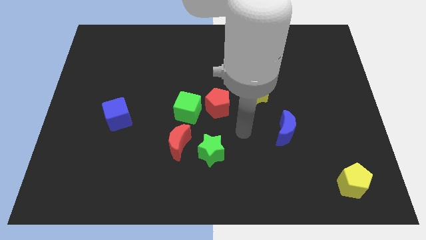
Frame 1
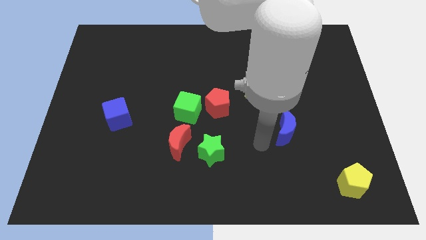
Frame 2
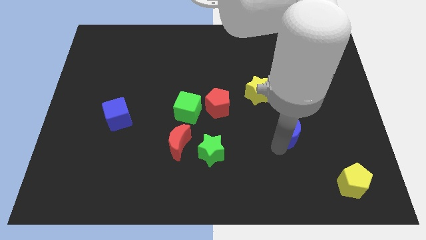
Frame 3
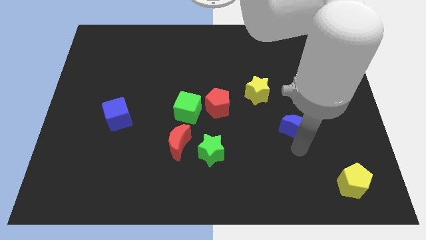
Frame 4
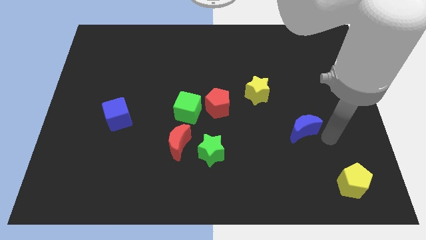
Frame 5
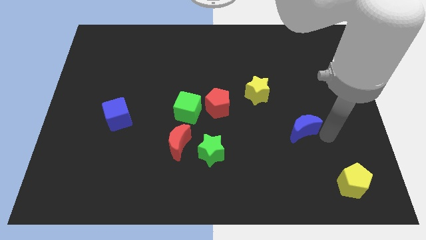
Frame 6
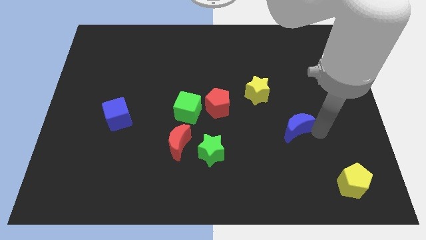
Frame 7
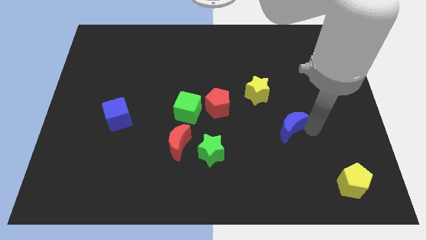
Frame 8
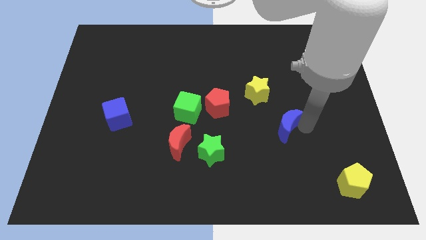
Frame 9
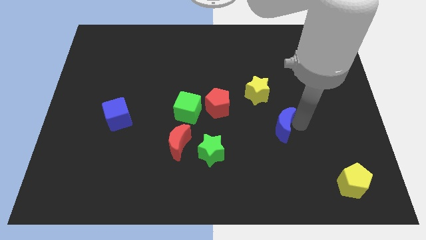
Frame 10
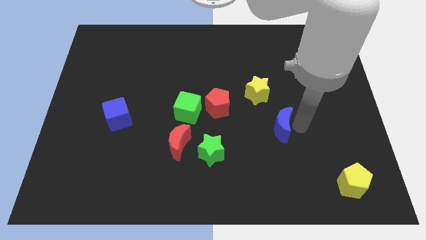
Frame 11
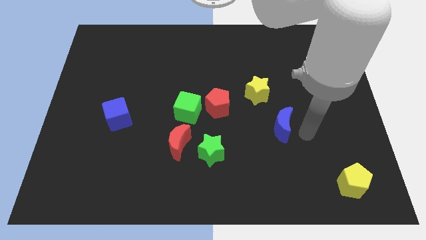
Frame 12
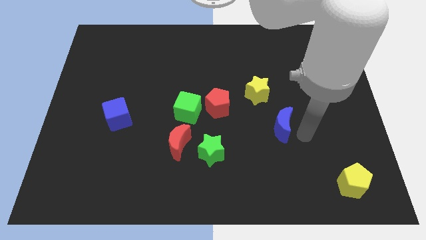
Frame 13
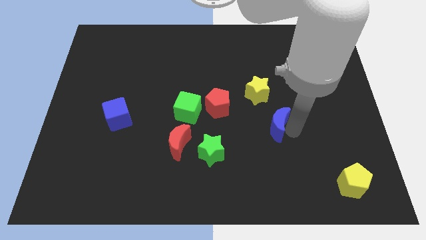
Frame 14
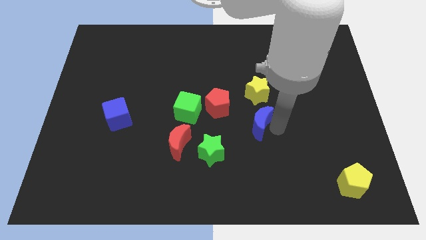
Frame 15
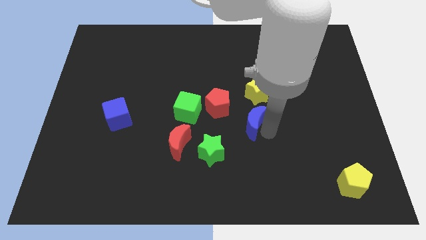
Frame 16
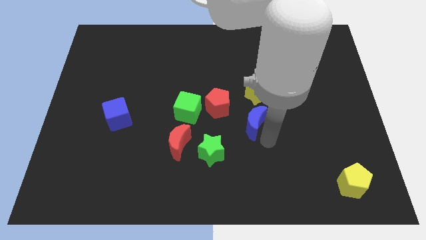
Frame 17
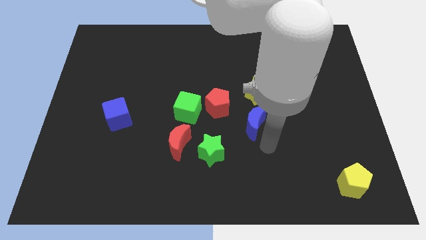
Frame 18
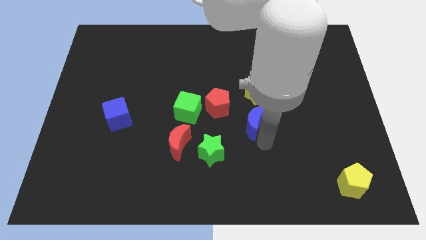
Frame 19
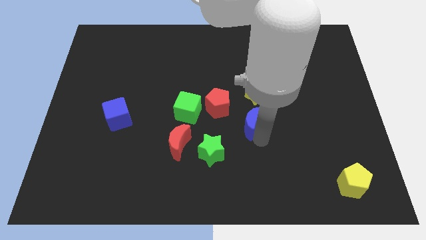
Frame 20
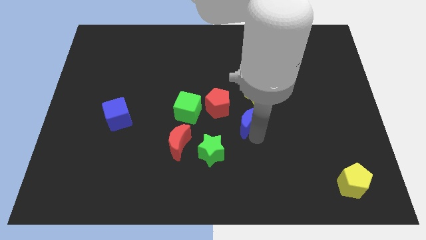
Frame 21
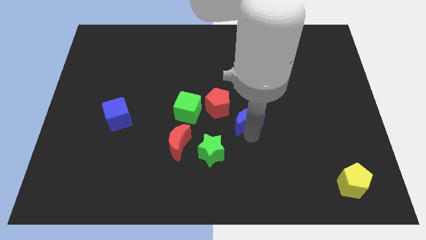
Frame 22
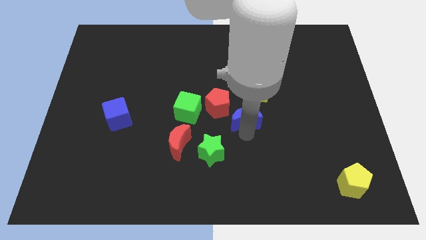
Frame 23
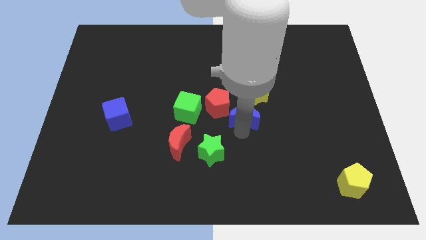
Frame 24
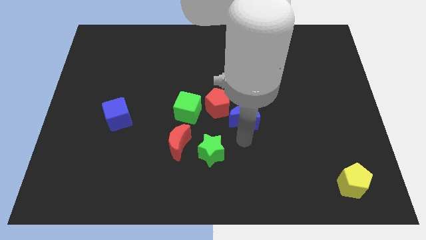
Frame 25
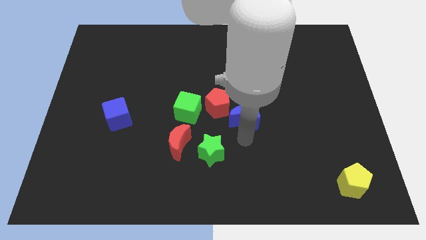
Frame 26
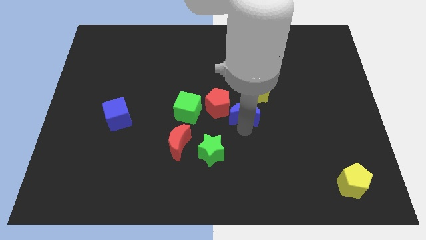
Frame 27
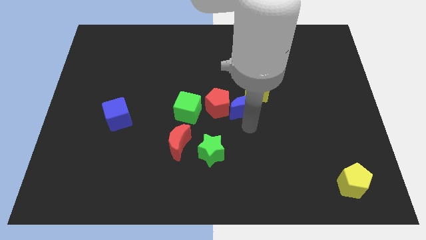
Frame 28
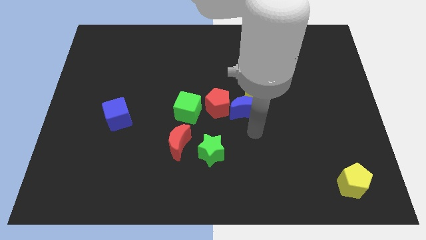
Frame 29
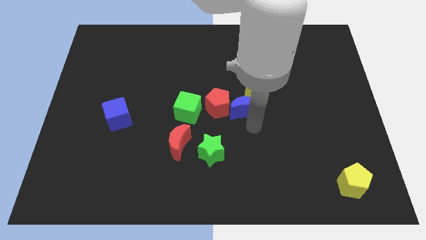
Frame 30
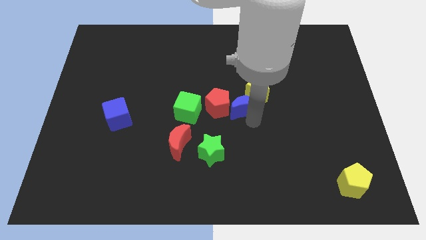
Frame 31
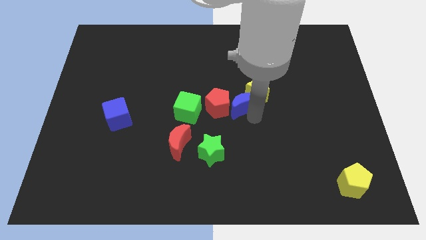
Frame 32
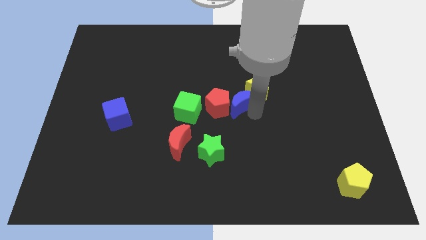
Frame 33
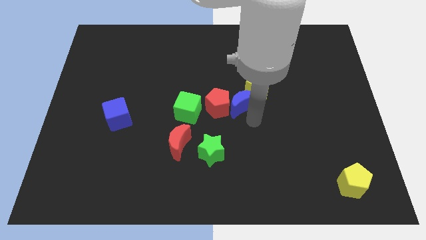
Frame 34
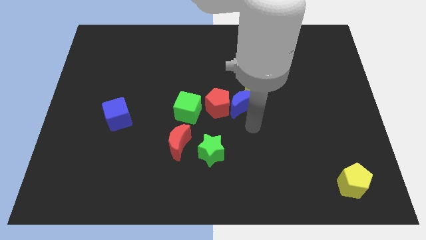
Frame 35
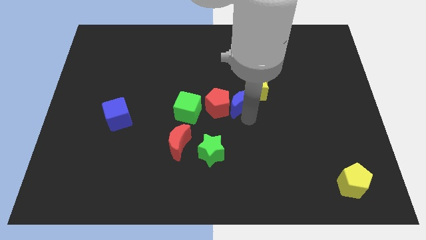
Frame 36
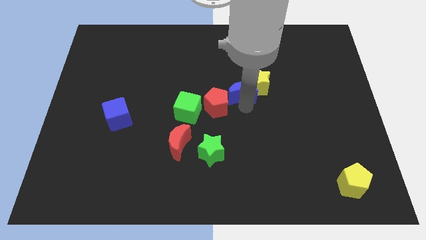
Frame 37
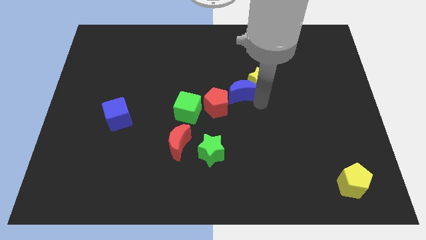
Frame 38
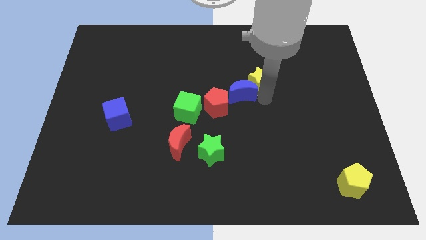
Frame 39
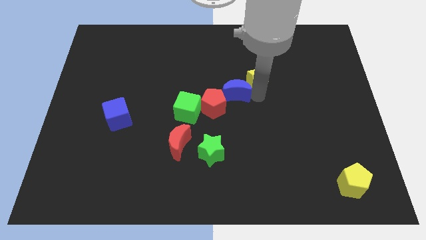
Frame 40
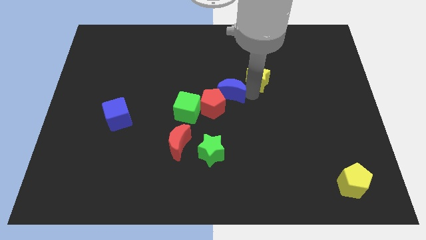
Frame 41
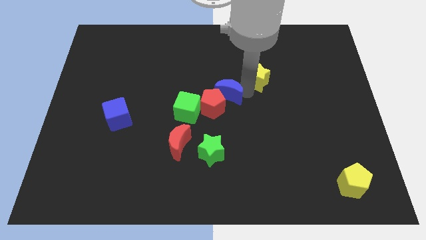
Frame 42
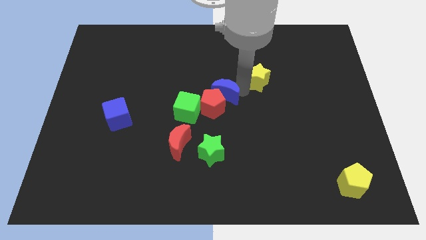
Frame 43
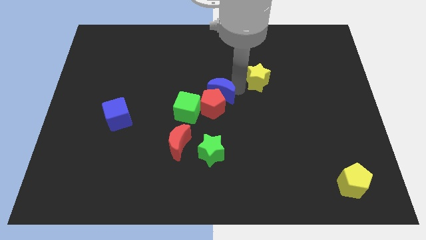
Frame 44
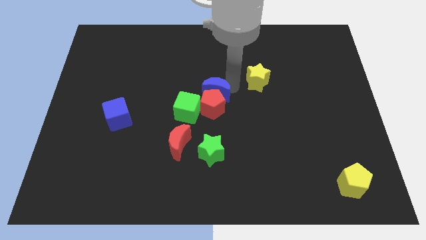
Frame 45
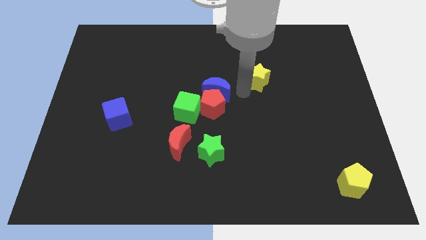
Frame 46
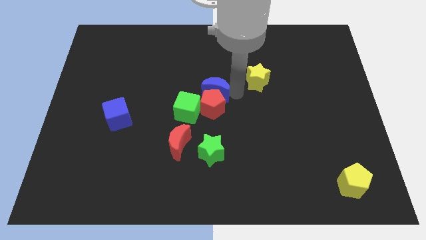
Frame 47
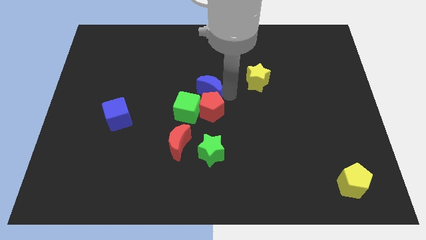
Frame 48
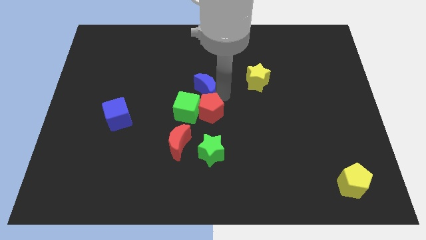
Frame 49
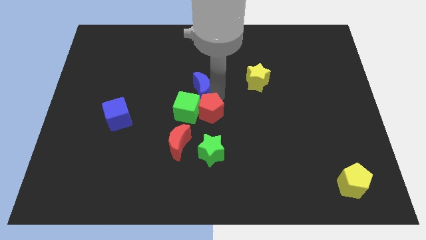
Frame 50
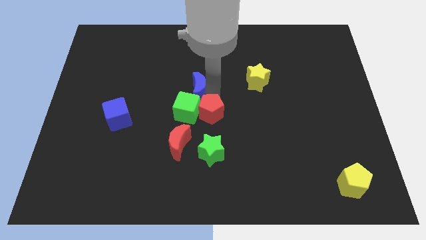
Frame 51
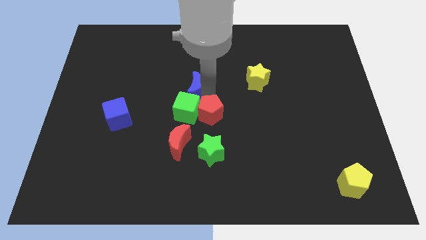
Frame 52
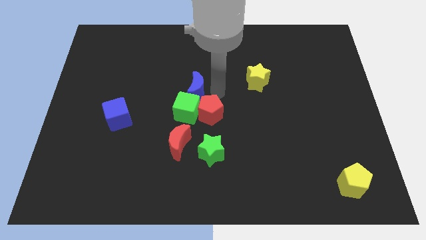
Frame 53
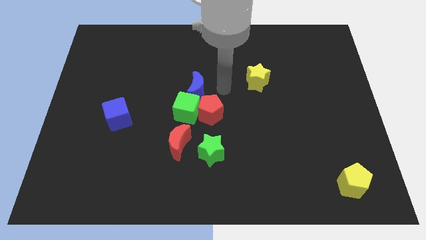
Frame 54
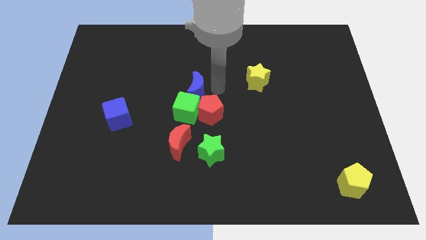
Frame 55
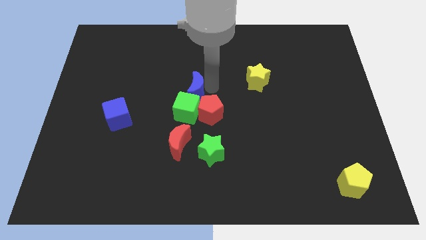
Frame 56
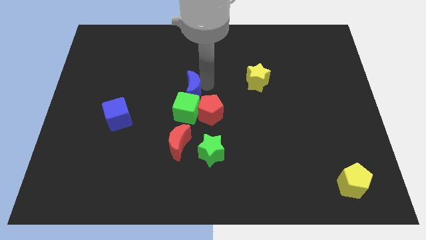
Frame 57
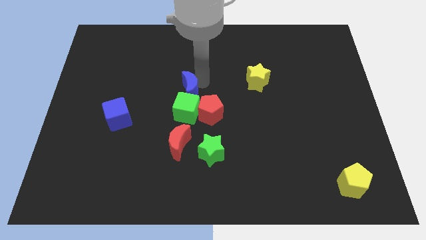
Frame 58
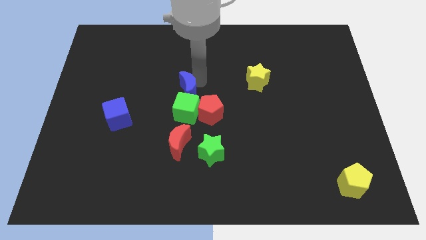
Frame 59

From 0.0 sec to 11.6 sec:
put the blue moon to the top left side of the green cube

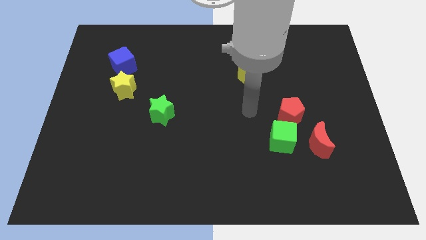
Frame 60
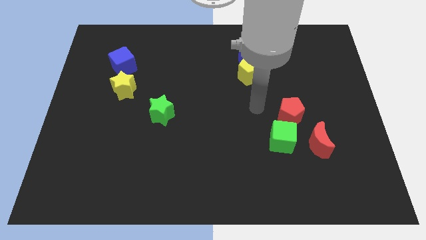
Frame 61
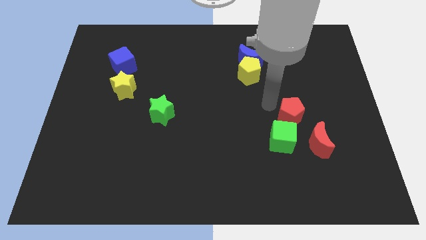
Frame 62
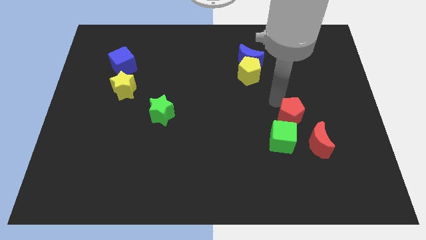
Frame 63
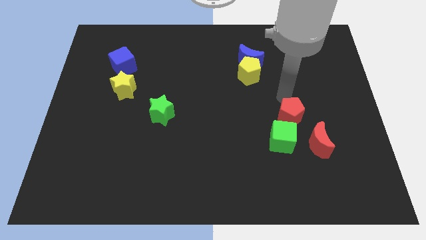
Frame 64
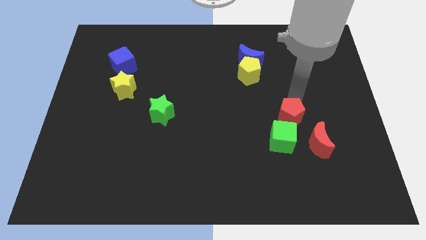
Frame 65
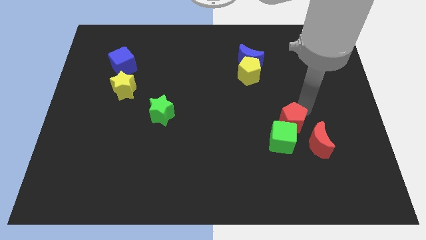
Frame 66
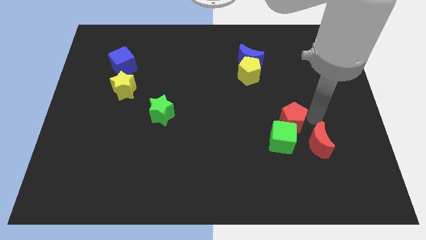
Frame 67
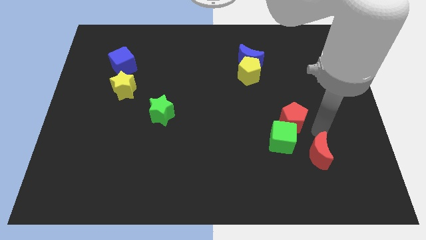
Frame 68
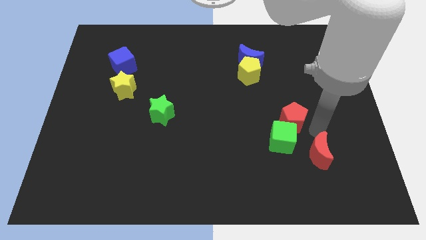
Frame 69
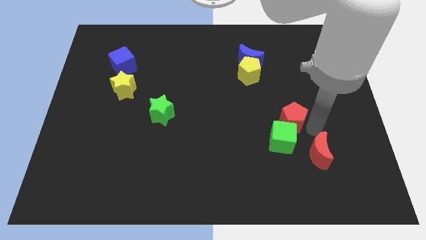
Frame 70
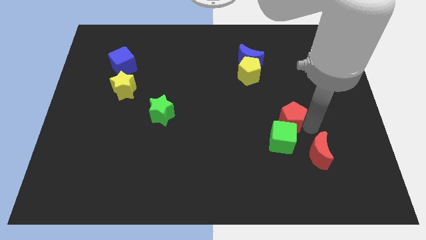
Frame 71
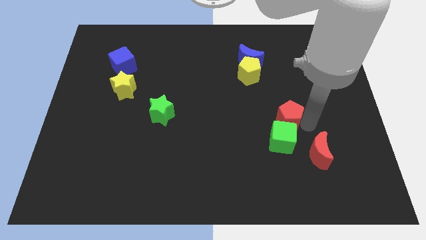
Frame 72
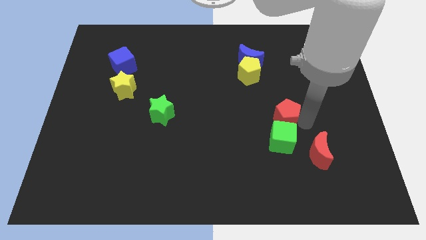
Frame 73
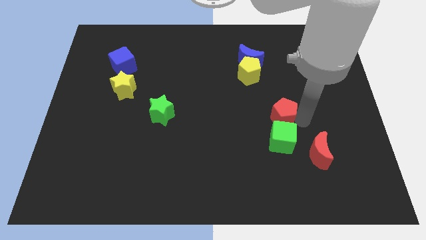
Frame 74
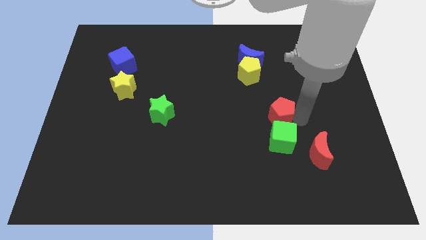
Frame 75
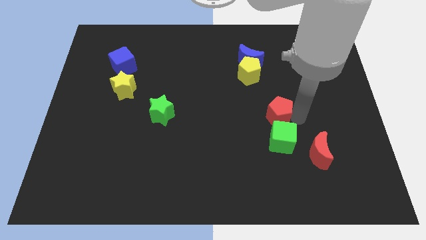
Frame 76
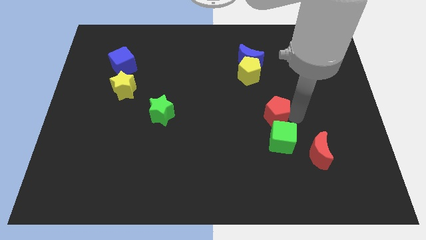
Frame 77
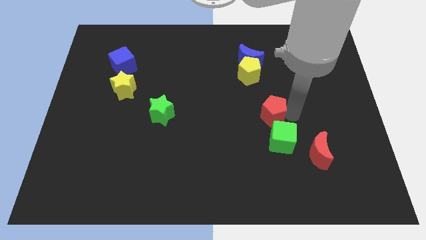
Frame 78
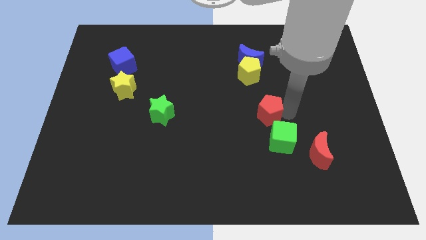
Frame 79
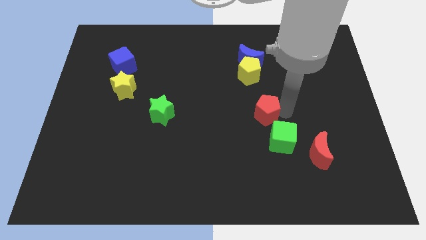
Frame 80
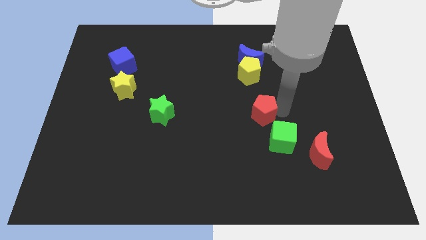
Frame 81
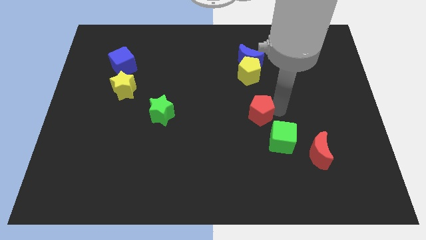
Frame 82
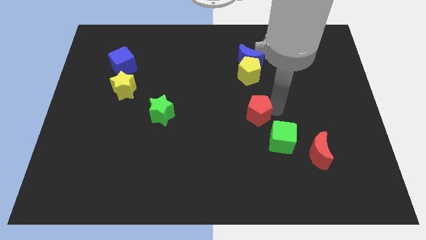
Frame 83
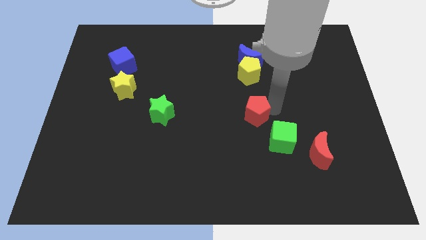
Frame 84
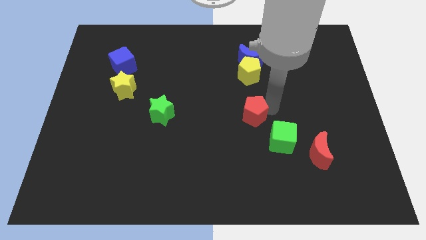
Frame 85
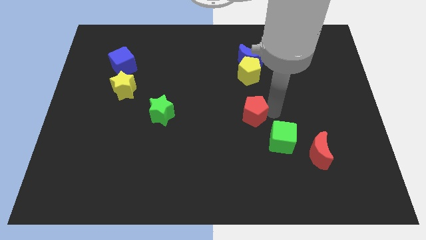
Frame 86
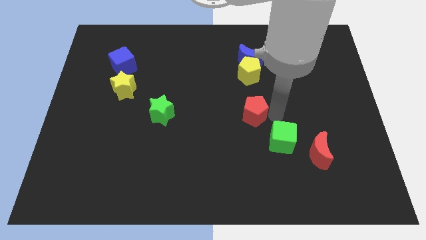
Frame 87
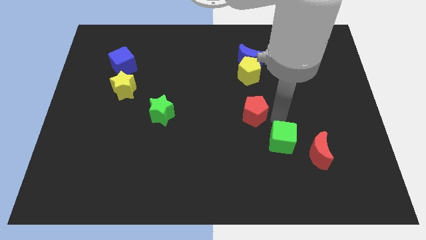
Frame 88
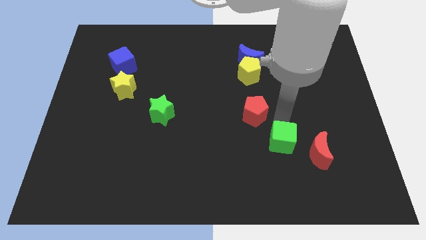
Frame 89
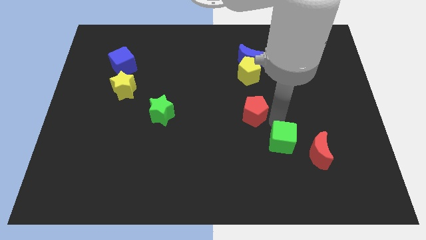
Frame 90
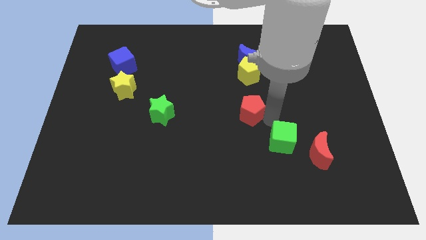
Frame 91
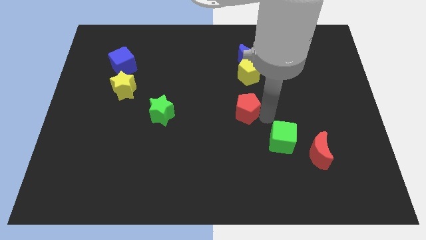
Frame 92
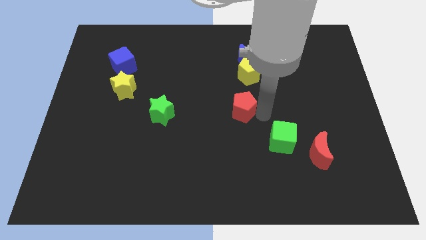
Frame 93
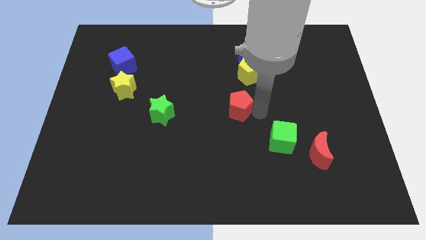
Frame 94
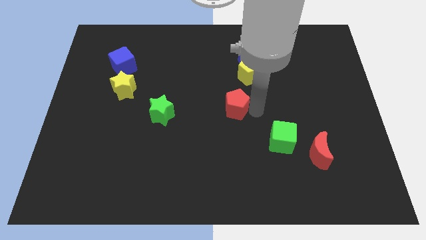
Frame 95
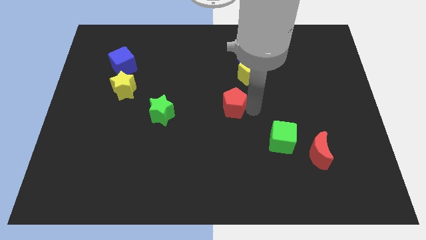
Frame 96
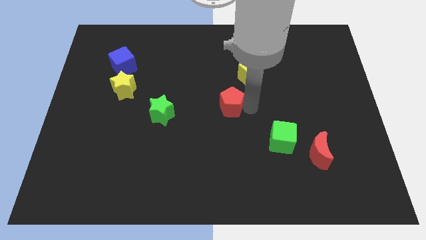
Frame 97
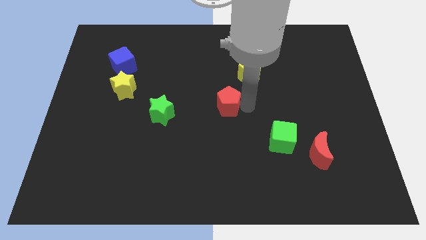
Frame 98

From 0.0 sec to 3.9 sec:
push the red pentagon to the right side of the green star
